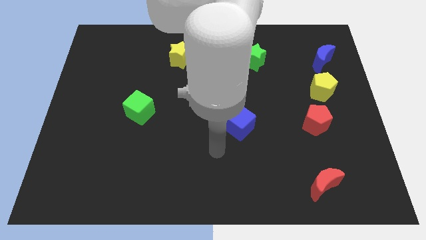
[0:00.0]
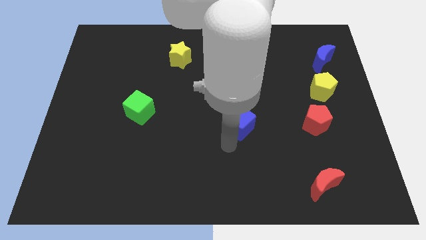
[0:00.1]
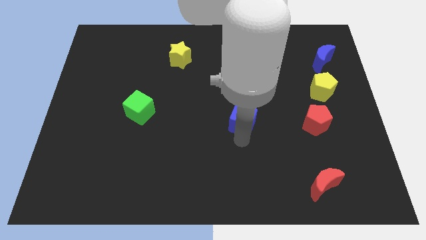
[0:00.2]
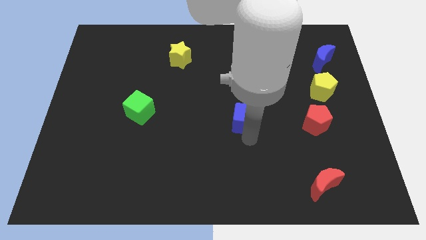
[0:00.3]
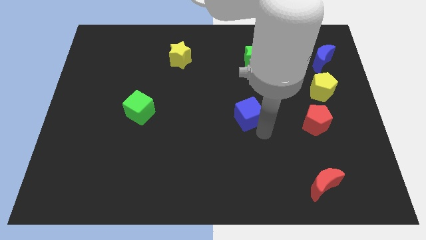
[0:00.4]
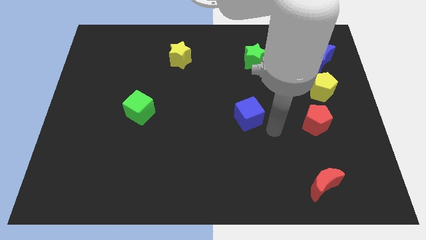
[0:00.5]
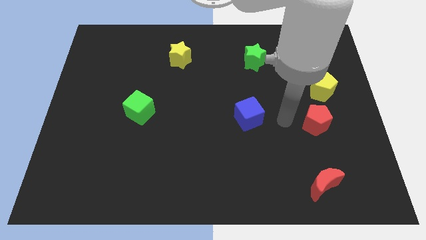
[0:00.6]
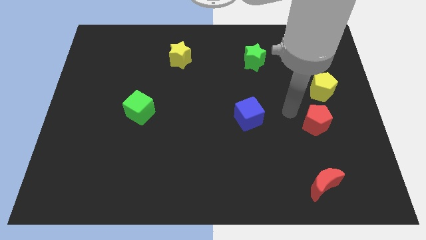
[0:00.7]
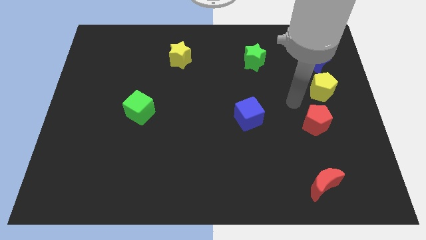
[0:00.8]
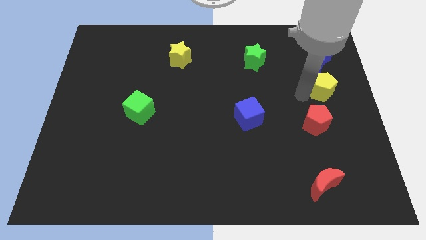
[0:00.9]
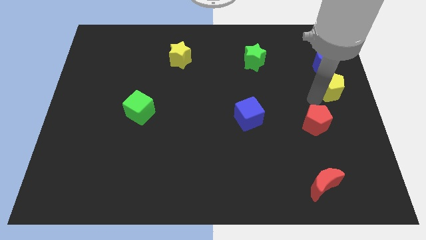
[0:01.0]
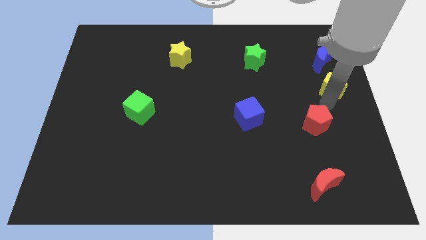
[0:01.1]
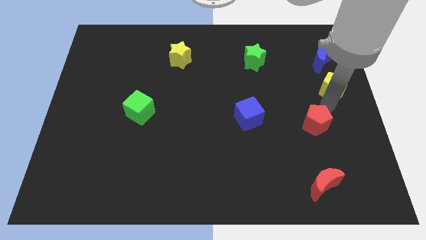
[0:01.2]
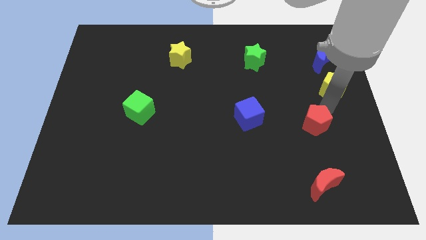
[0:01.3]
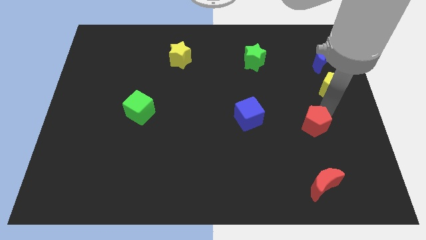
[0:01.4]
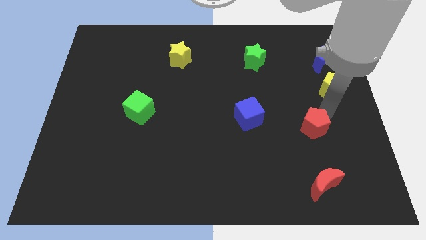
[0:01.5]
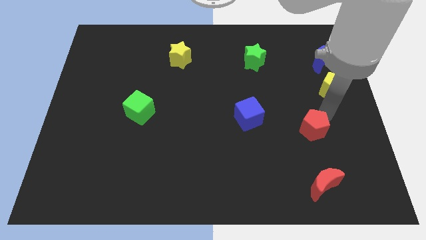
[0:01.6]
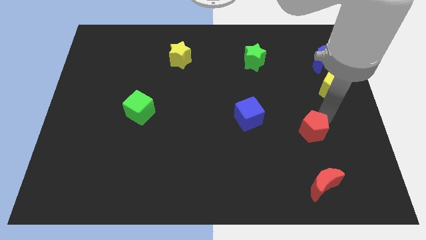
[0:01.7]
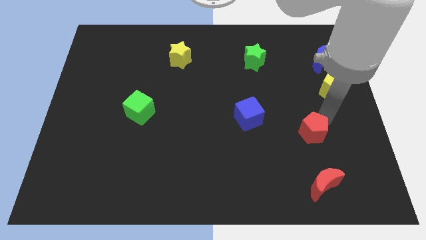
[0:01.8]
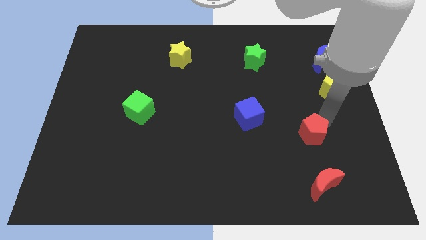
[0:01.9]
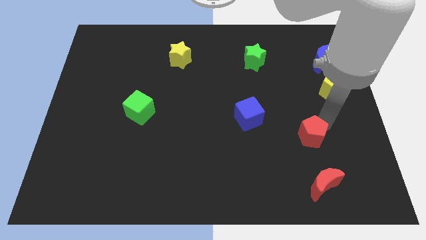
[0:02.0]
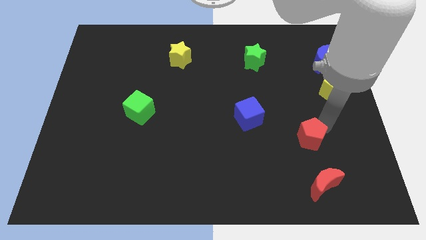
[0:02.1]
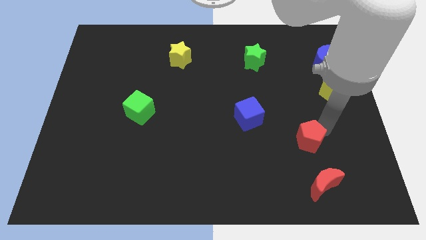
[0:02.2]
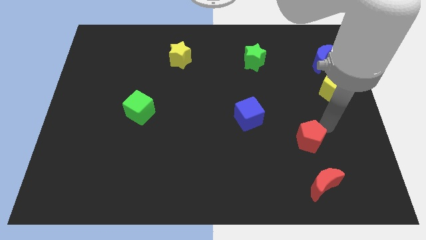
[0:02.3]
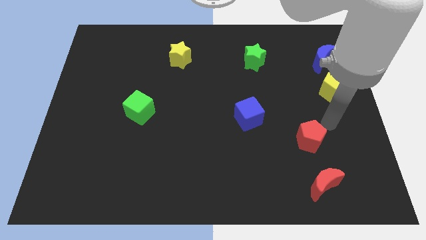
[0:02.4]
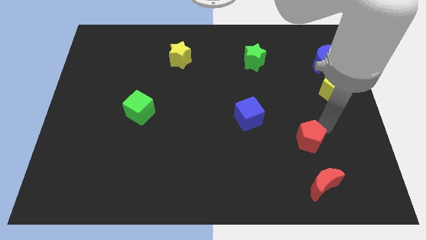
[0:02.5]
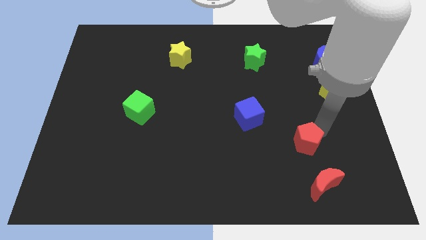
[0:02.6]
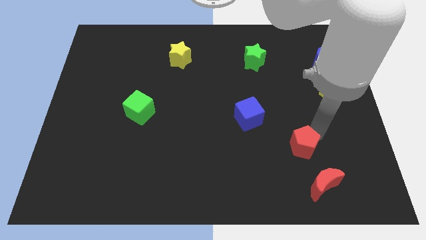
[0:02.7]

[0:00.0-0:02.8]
move the red pentagon down and then left slightly

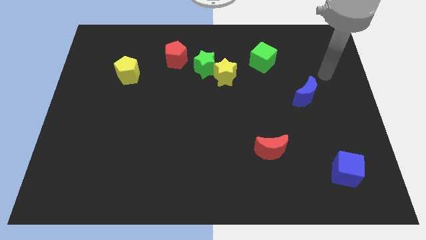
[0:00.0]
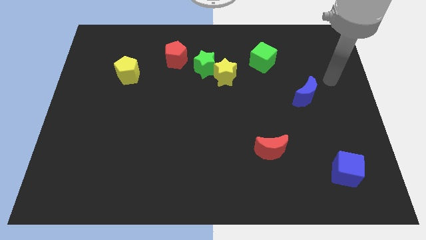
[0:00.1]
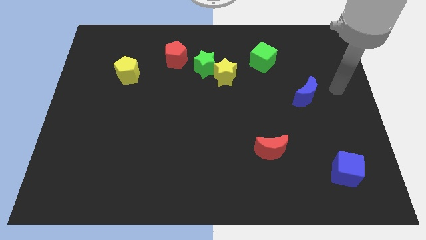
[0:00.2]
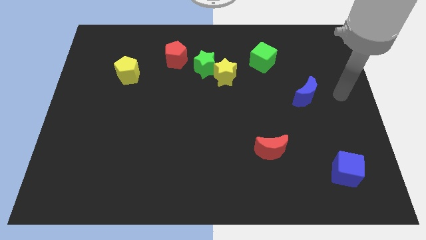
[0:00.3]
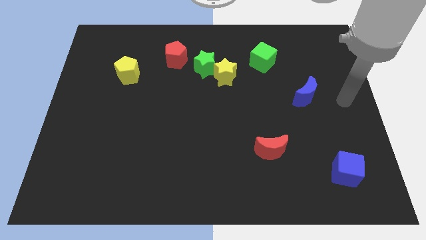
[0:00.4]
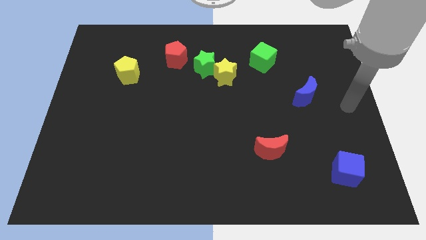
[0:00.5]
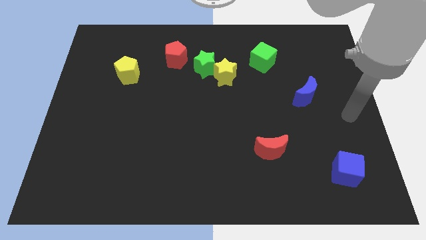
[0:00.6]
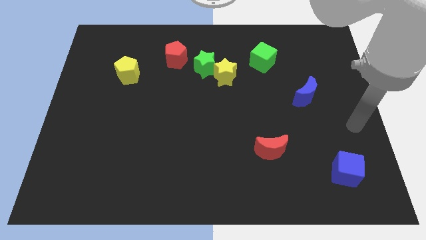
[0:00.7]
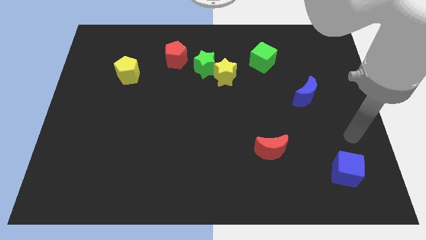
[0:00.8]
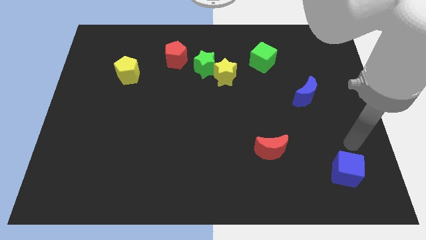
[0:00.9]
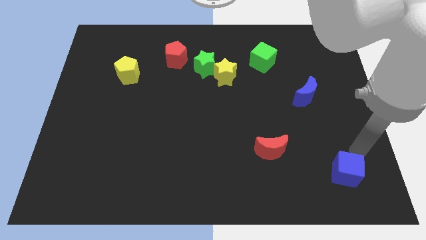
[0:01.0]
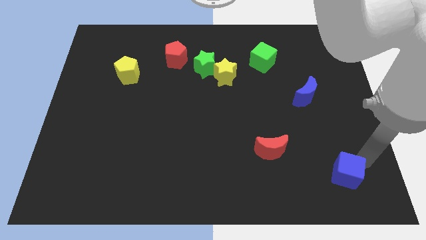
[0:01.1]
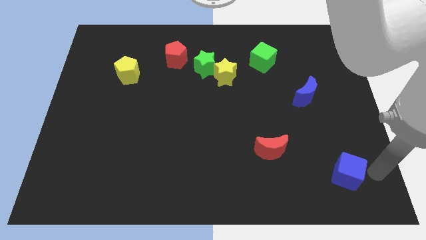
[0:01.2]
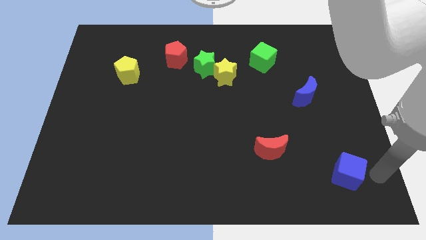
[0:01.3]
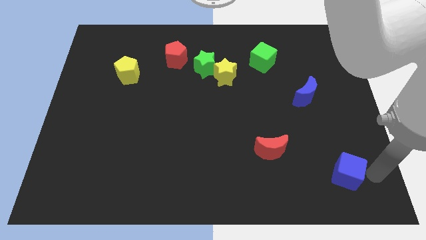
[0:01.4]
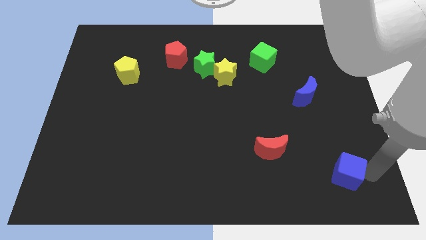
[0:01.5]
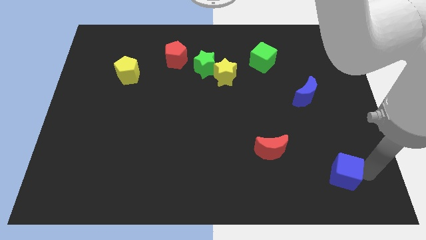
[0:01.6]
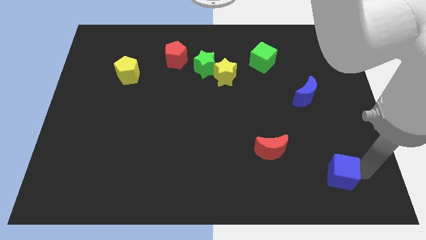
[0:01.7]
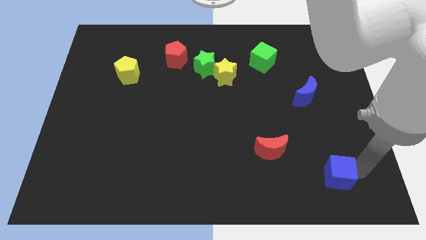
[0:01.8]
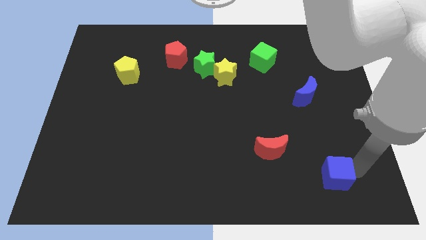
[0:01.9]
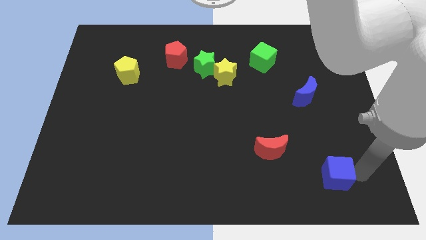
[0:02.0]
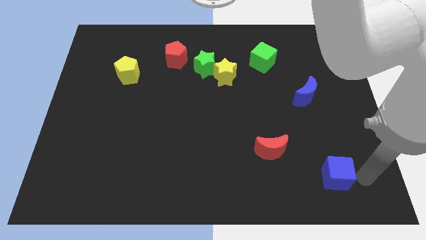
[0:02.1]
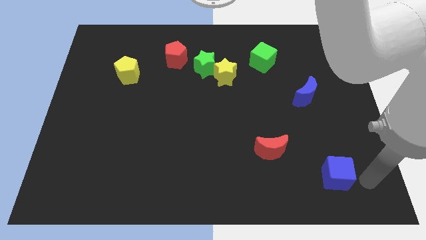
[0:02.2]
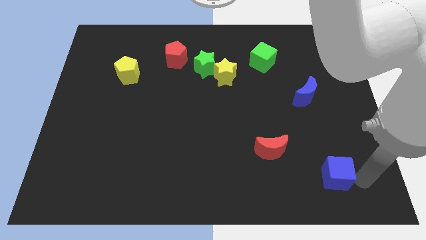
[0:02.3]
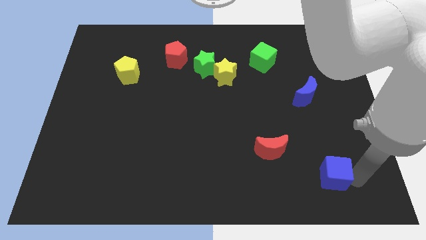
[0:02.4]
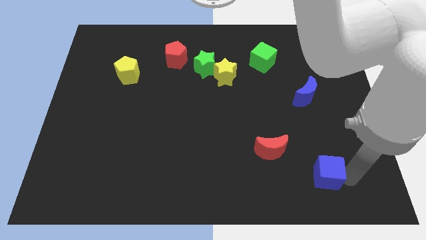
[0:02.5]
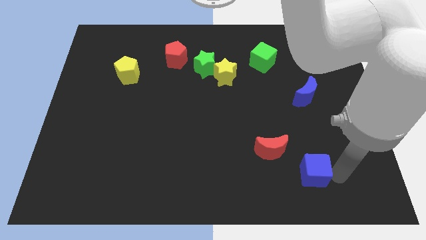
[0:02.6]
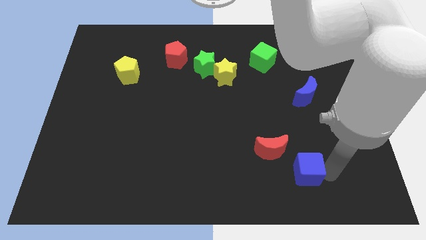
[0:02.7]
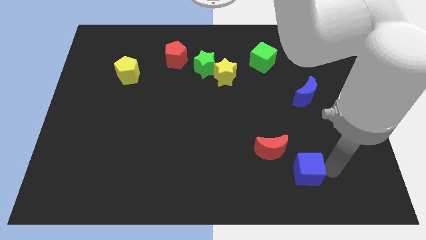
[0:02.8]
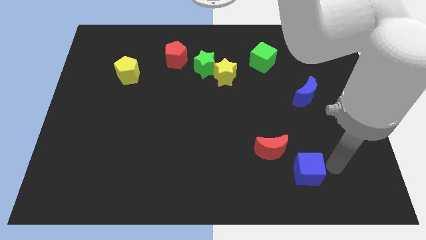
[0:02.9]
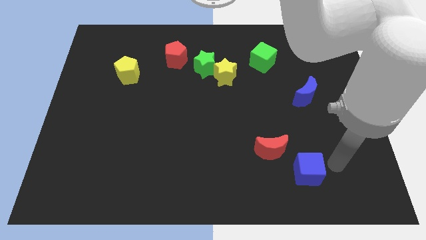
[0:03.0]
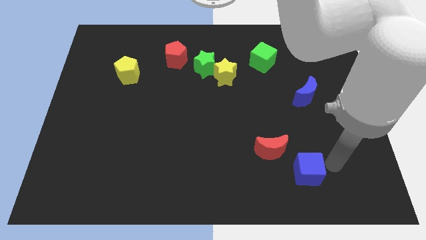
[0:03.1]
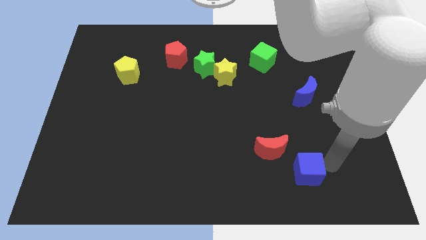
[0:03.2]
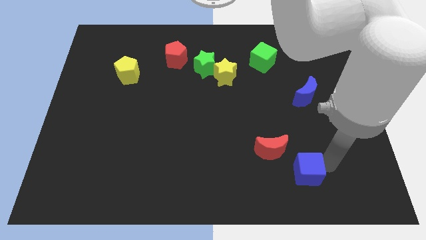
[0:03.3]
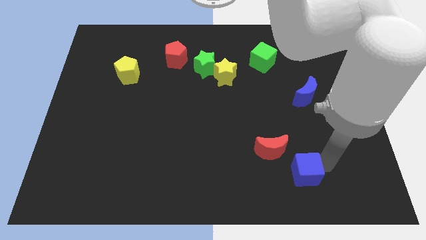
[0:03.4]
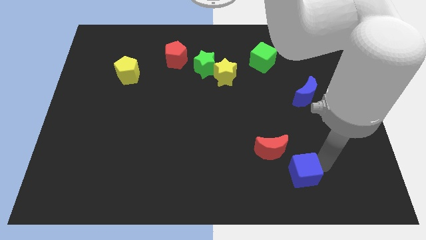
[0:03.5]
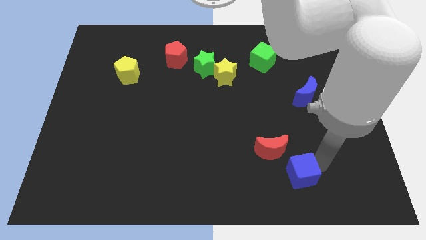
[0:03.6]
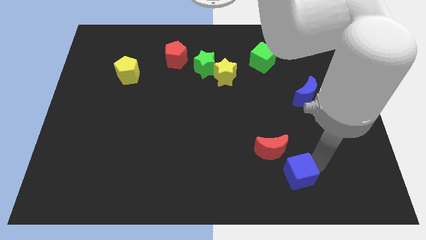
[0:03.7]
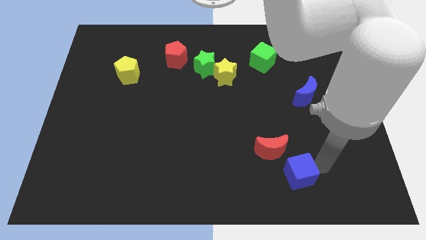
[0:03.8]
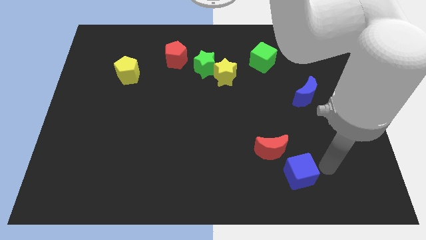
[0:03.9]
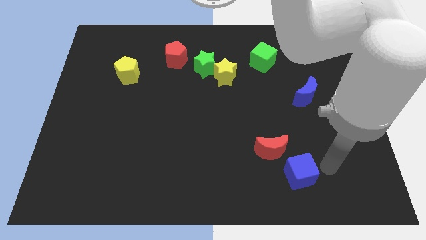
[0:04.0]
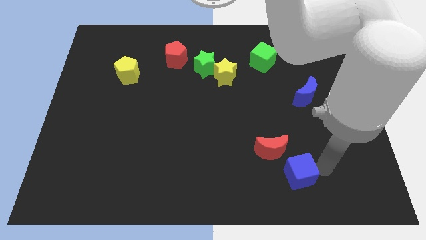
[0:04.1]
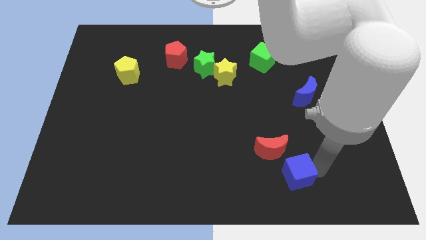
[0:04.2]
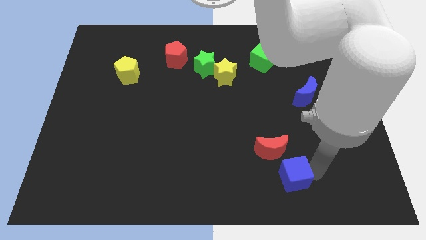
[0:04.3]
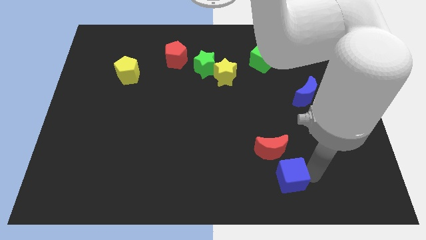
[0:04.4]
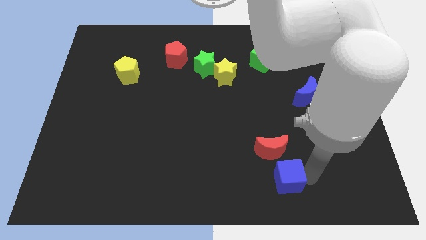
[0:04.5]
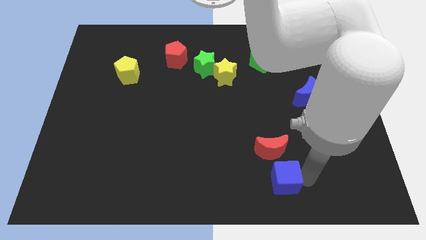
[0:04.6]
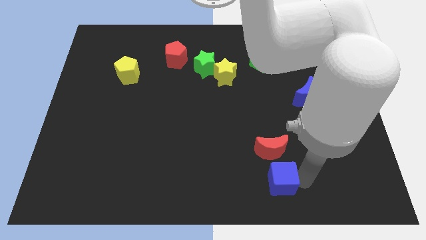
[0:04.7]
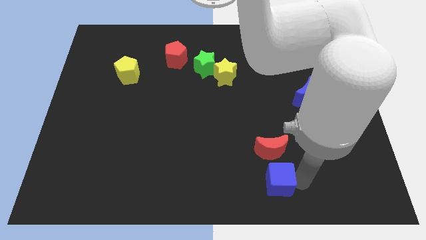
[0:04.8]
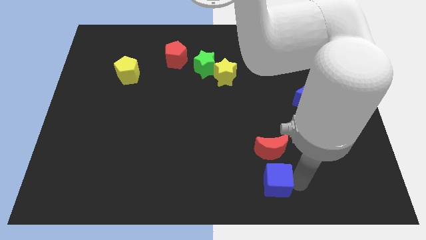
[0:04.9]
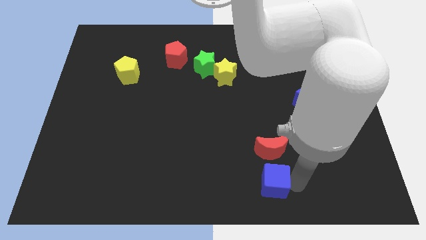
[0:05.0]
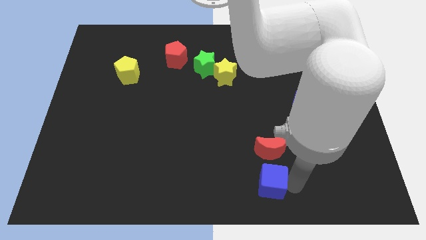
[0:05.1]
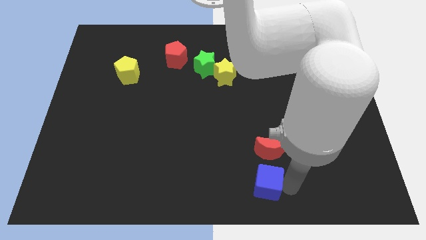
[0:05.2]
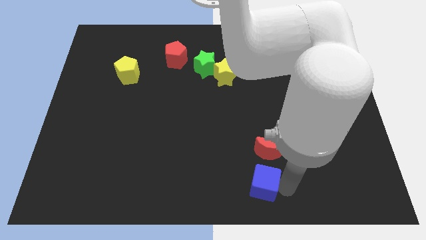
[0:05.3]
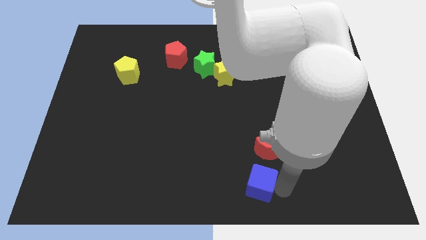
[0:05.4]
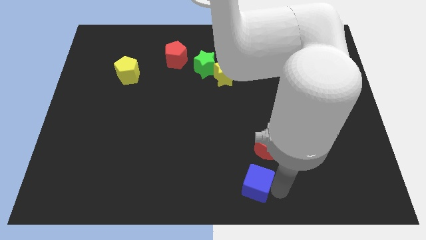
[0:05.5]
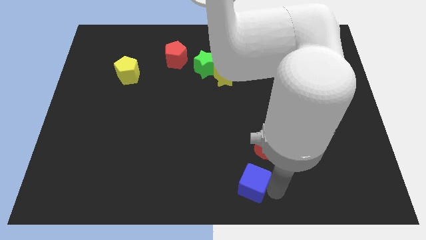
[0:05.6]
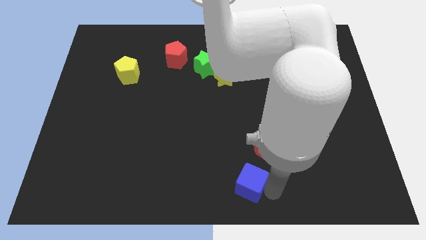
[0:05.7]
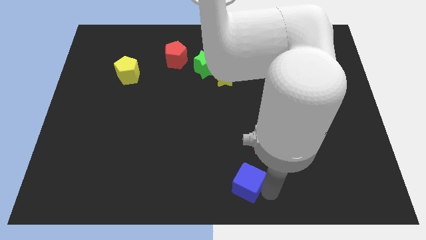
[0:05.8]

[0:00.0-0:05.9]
push the blue cube to the left
